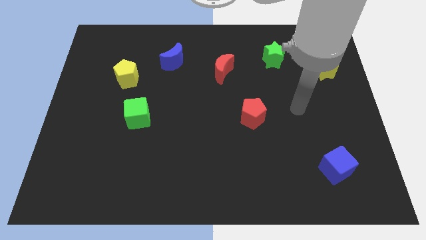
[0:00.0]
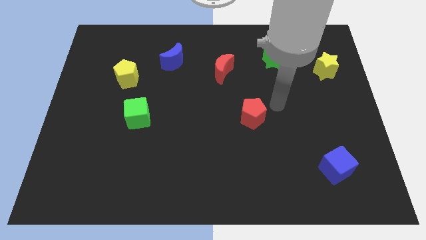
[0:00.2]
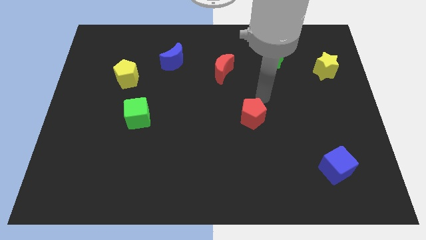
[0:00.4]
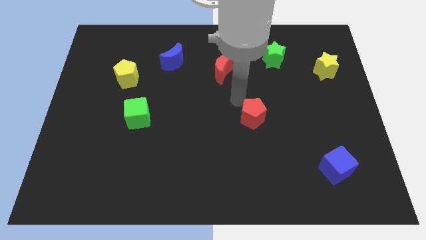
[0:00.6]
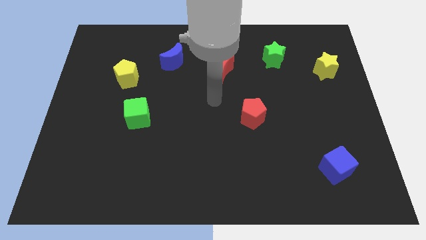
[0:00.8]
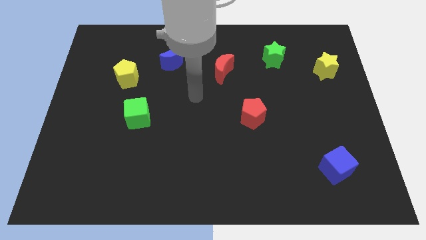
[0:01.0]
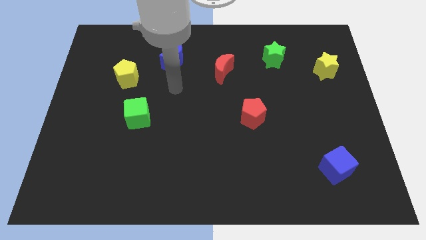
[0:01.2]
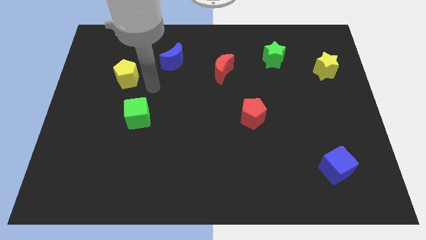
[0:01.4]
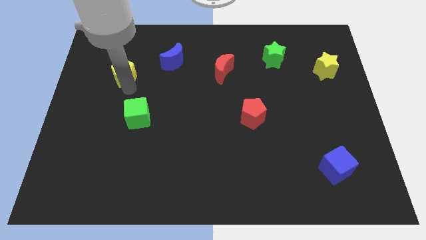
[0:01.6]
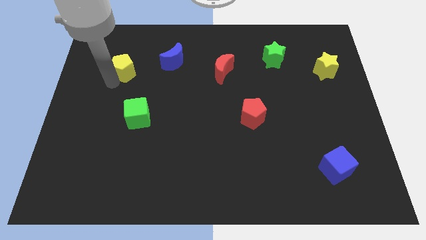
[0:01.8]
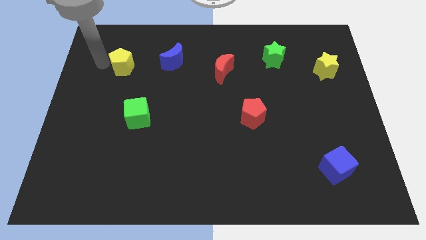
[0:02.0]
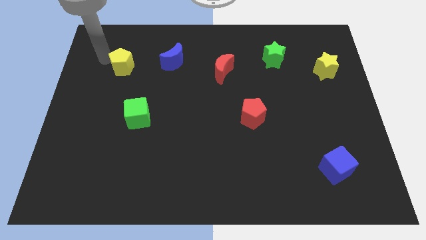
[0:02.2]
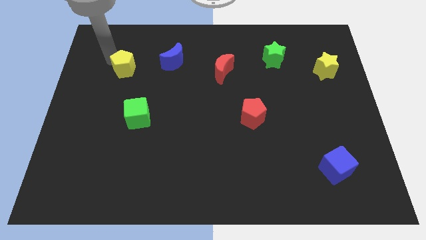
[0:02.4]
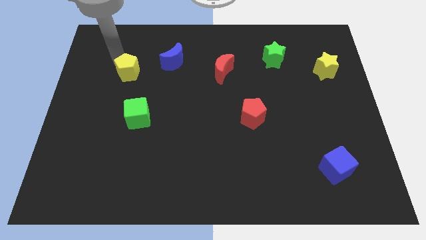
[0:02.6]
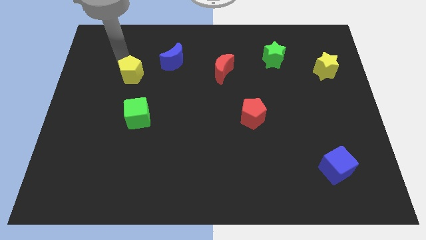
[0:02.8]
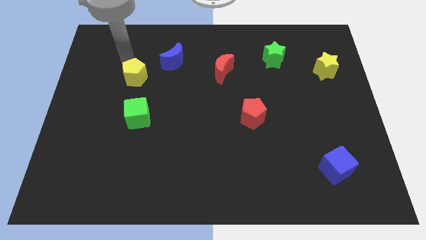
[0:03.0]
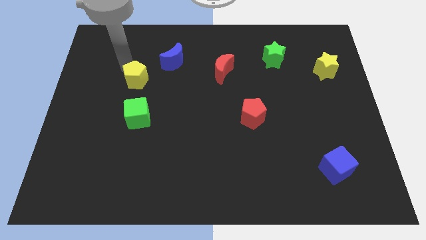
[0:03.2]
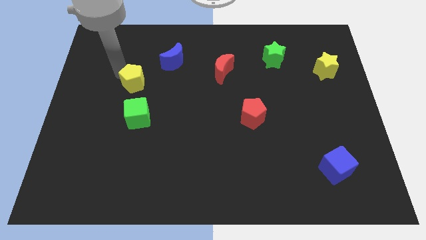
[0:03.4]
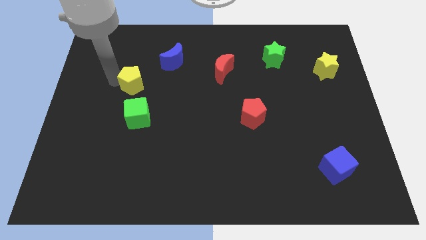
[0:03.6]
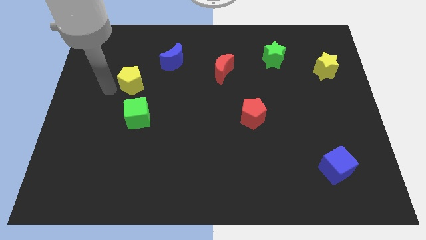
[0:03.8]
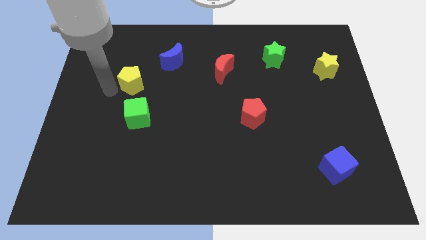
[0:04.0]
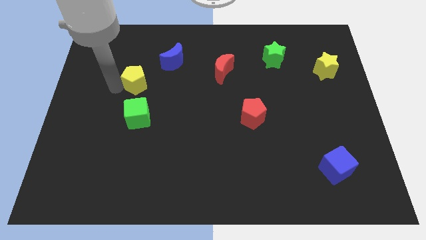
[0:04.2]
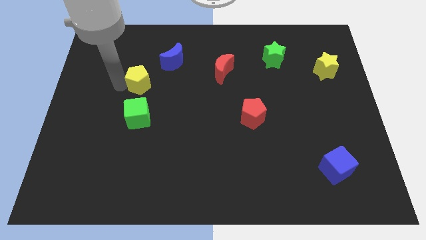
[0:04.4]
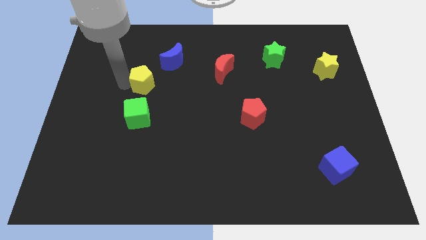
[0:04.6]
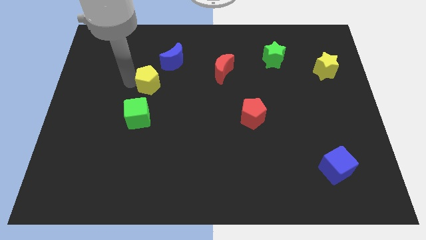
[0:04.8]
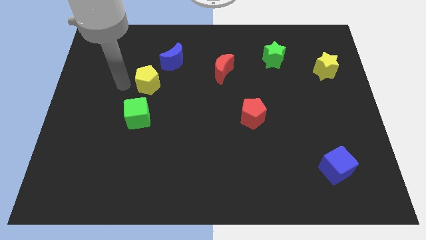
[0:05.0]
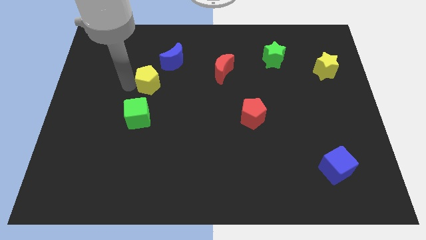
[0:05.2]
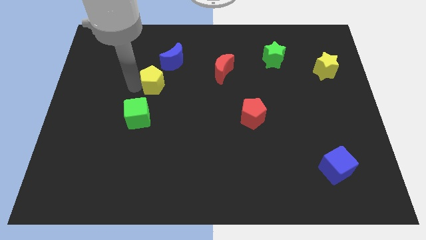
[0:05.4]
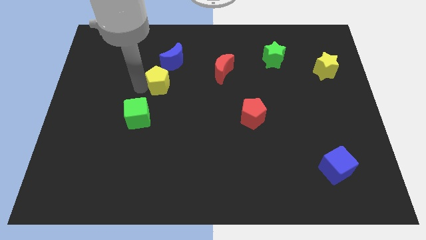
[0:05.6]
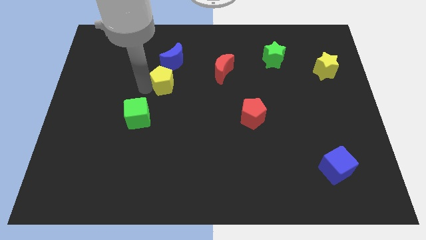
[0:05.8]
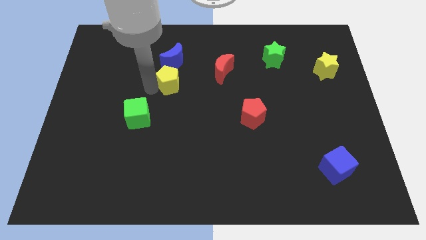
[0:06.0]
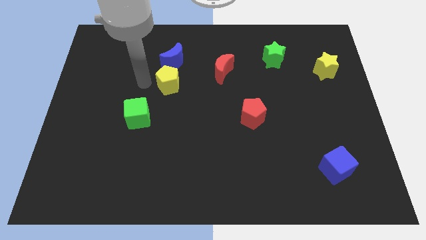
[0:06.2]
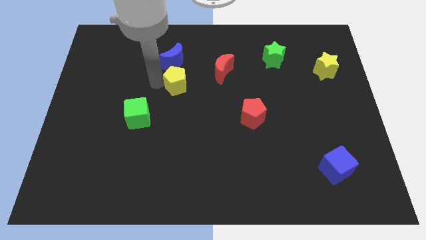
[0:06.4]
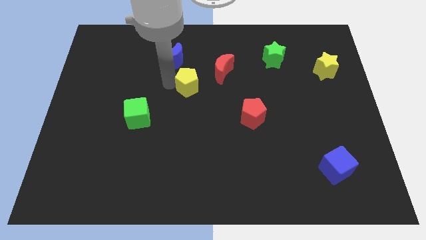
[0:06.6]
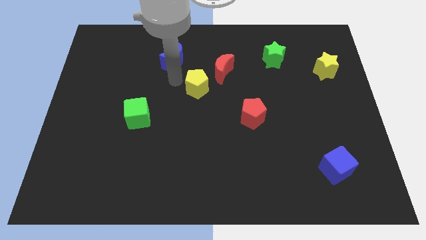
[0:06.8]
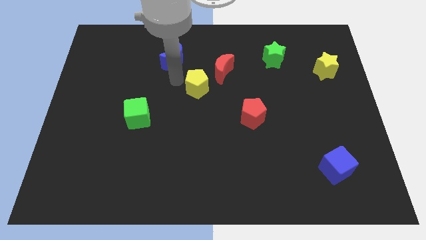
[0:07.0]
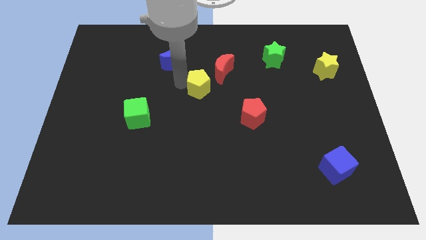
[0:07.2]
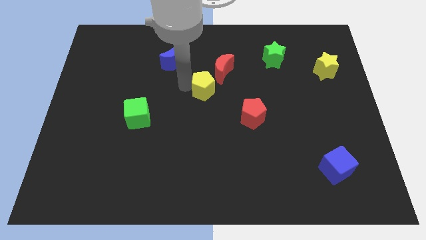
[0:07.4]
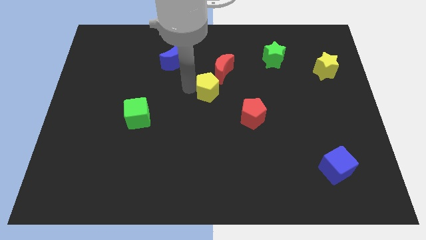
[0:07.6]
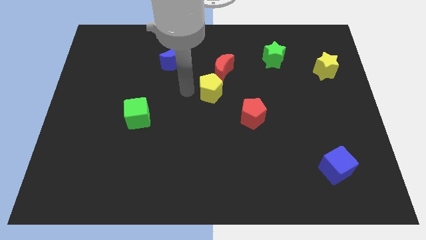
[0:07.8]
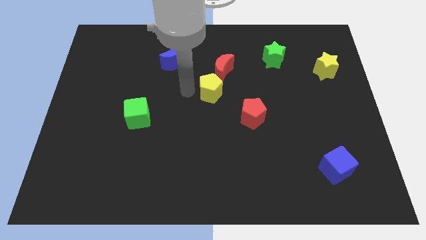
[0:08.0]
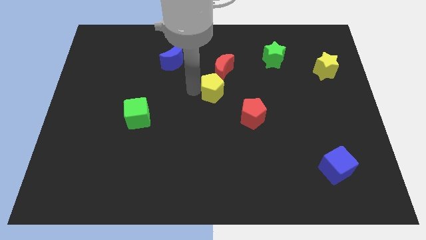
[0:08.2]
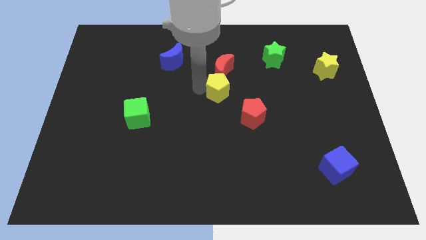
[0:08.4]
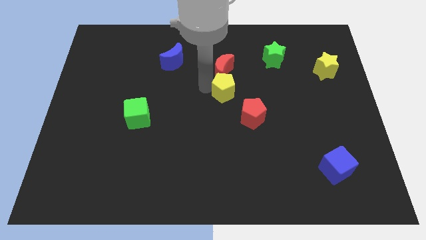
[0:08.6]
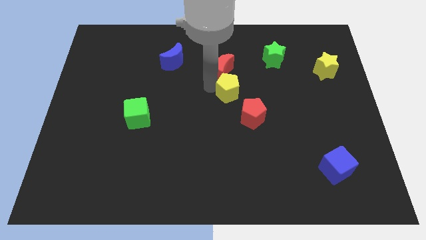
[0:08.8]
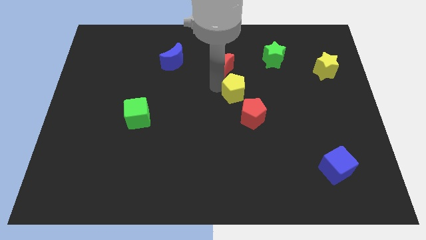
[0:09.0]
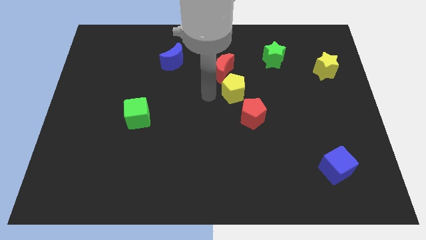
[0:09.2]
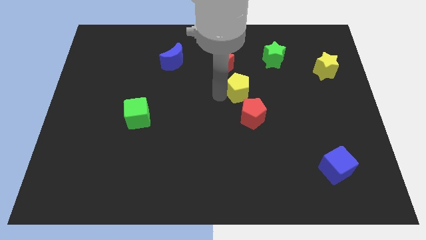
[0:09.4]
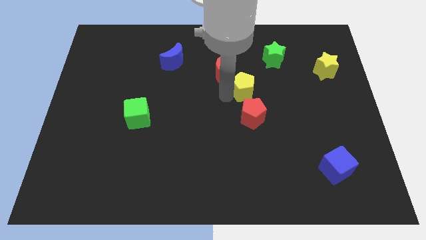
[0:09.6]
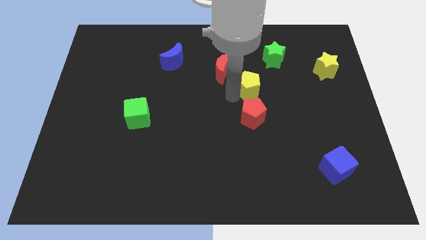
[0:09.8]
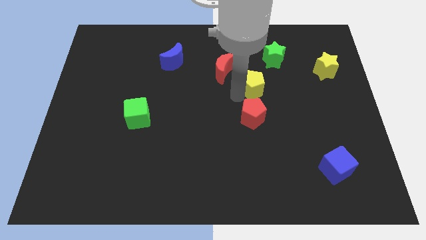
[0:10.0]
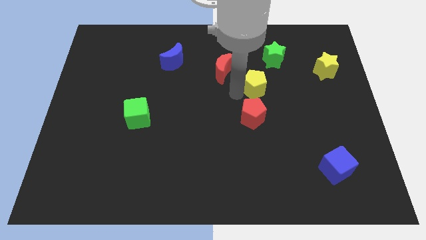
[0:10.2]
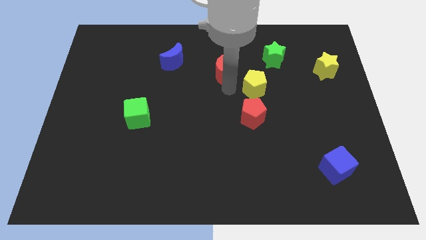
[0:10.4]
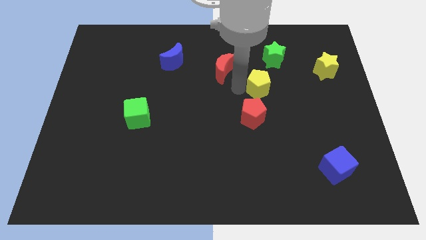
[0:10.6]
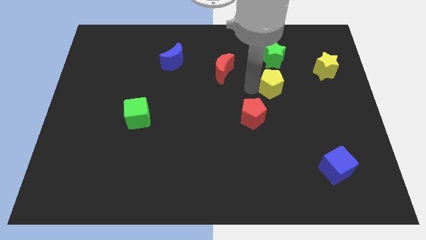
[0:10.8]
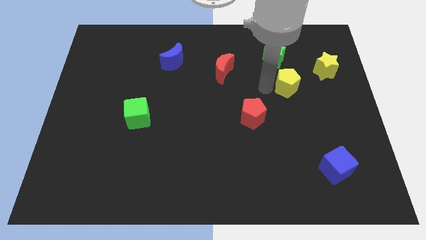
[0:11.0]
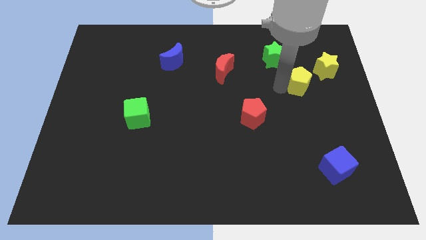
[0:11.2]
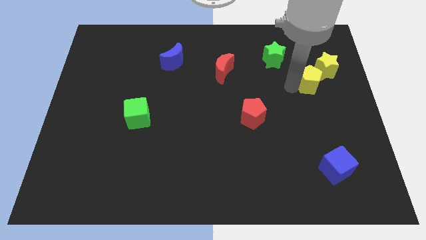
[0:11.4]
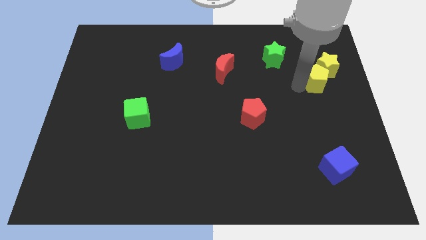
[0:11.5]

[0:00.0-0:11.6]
push the yellow pentagon to the yellow star

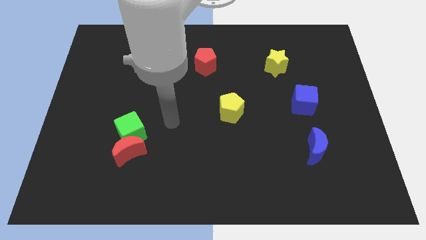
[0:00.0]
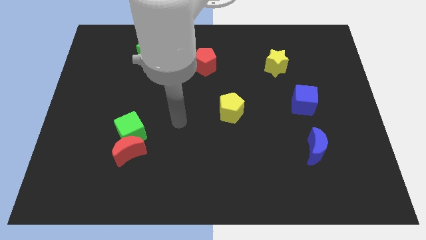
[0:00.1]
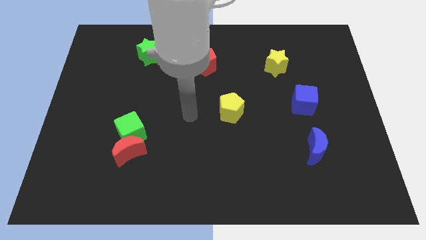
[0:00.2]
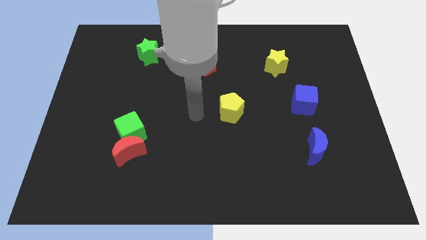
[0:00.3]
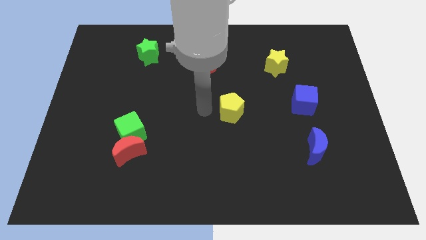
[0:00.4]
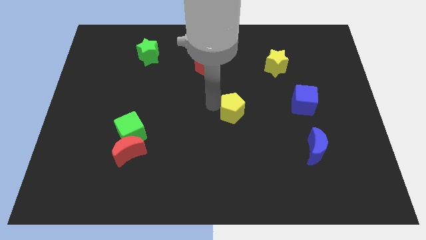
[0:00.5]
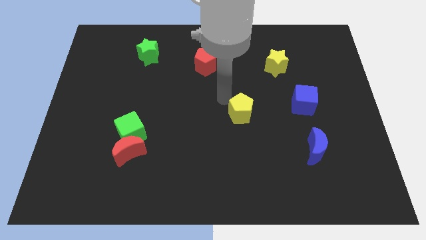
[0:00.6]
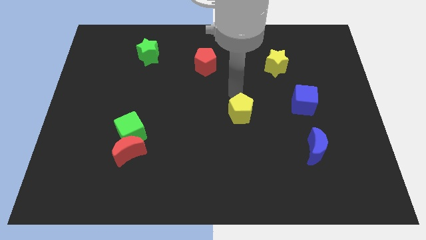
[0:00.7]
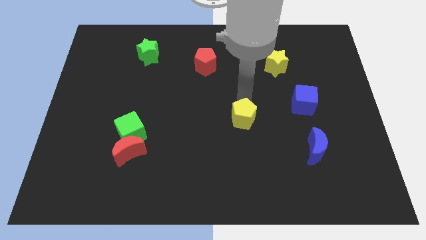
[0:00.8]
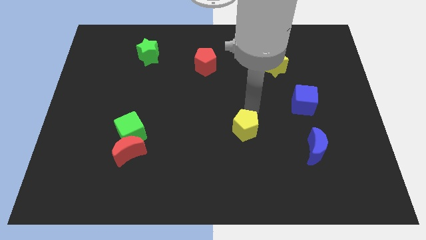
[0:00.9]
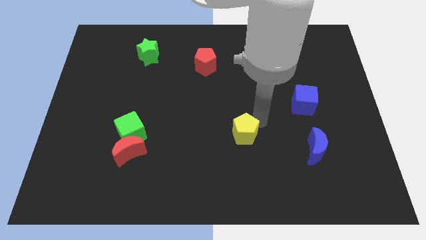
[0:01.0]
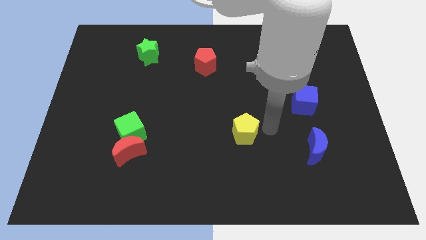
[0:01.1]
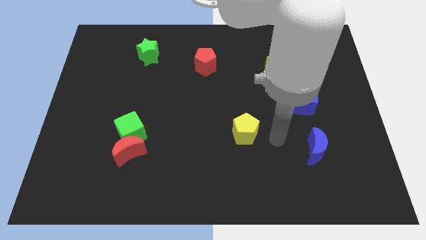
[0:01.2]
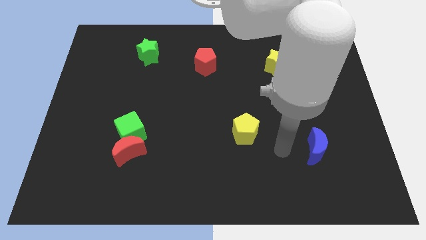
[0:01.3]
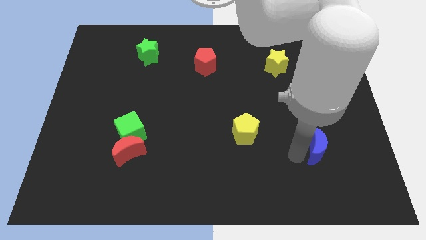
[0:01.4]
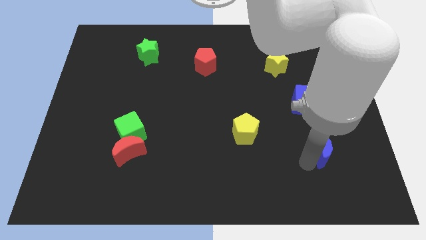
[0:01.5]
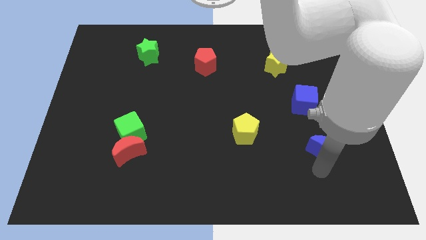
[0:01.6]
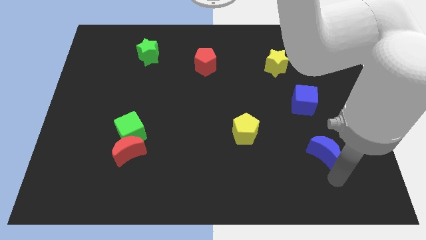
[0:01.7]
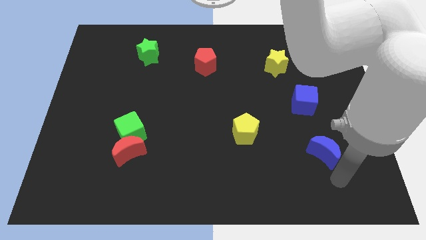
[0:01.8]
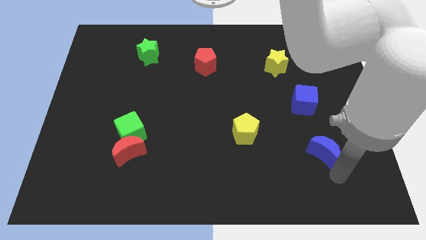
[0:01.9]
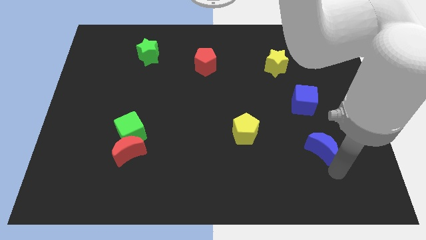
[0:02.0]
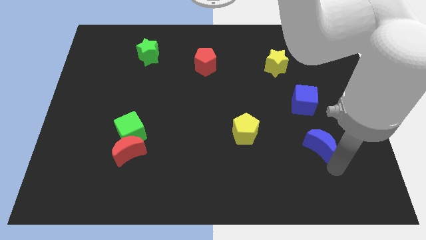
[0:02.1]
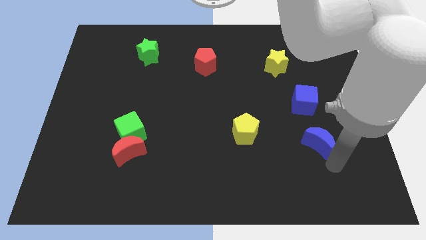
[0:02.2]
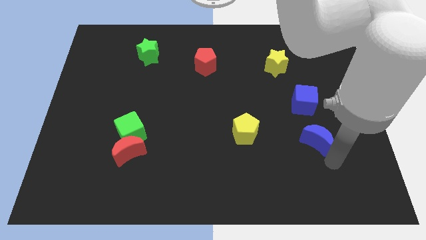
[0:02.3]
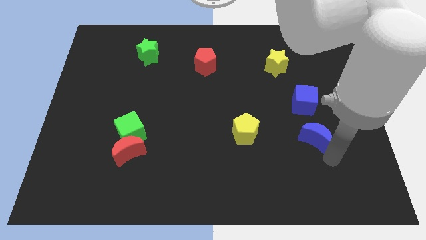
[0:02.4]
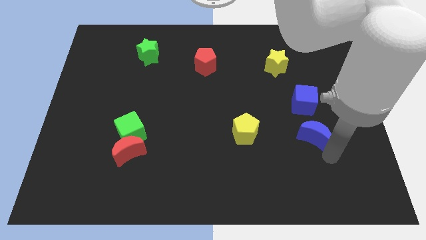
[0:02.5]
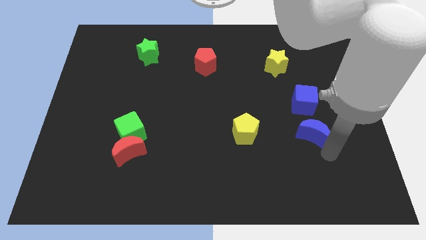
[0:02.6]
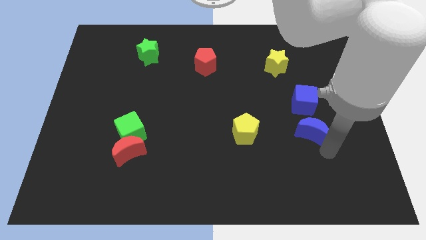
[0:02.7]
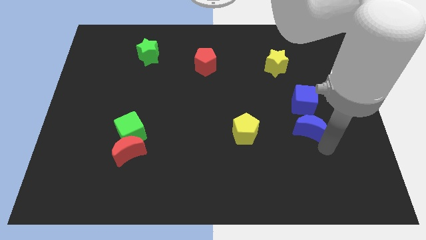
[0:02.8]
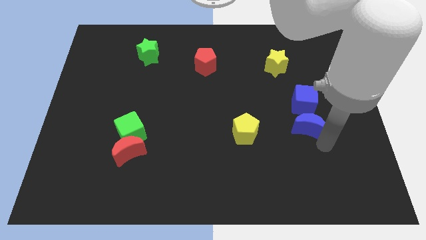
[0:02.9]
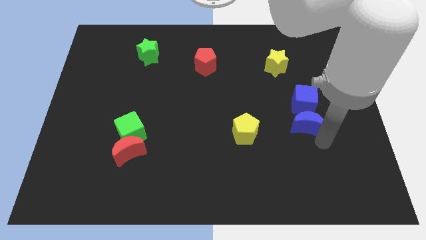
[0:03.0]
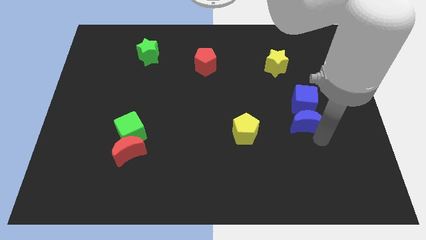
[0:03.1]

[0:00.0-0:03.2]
push the blue moon next to the blue cube
